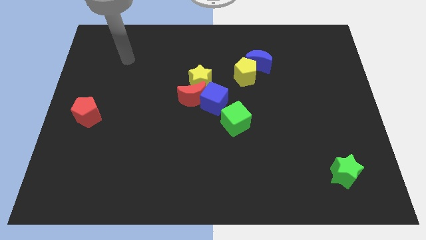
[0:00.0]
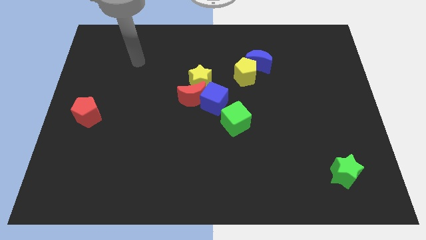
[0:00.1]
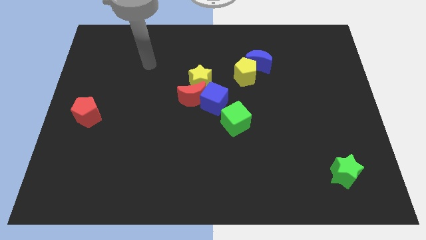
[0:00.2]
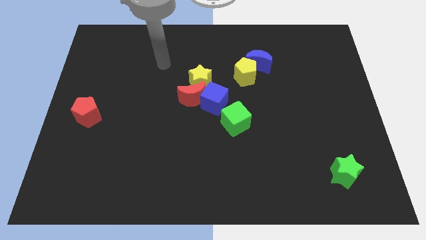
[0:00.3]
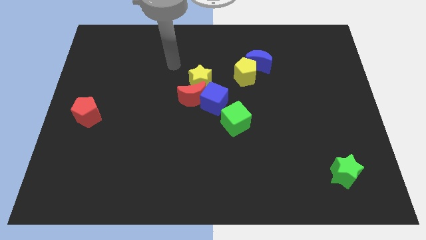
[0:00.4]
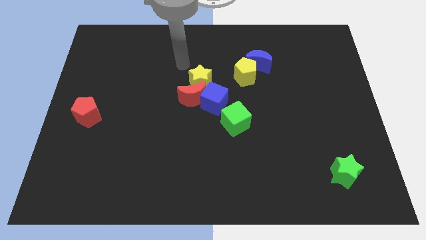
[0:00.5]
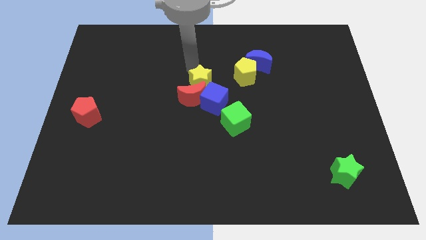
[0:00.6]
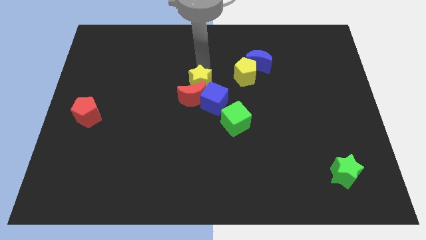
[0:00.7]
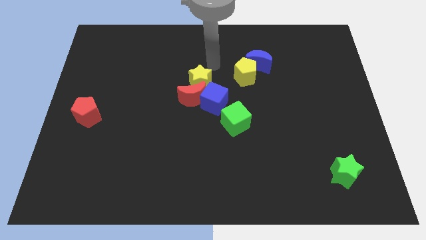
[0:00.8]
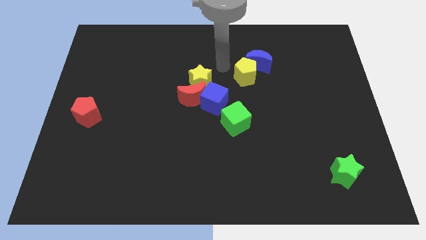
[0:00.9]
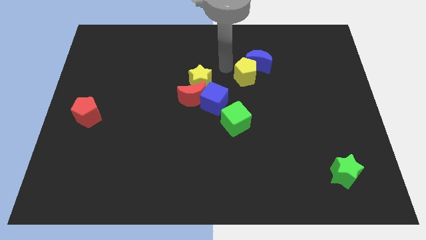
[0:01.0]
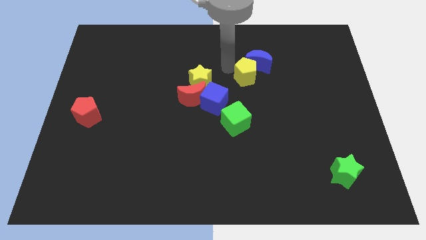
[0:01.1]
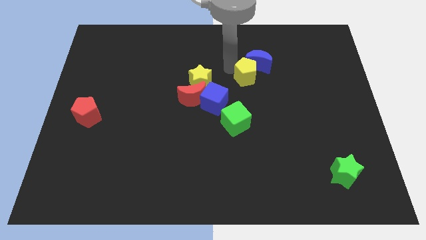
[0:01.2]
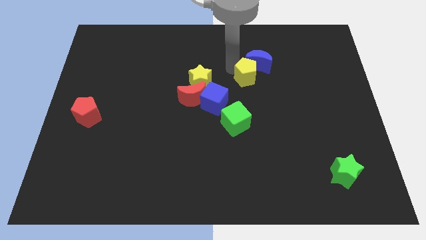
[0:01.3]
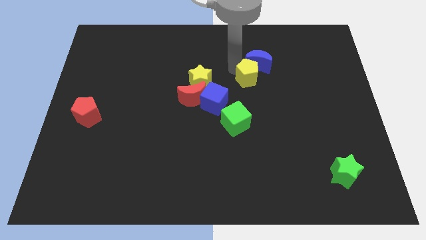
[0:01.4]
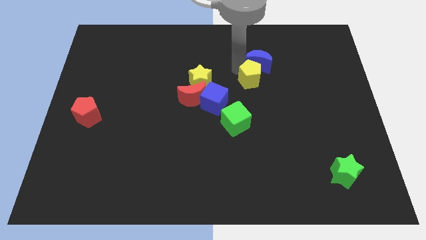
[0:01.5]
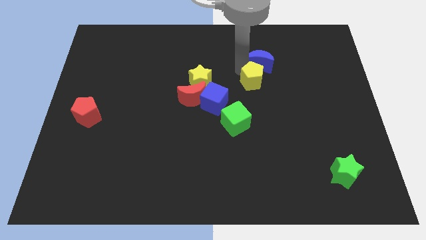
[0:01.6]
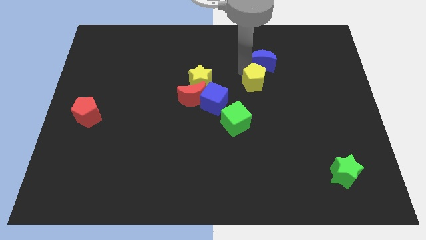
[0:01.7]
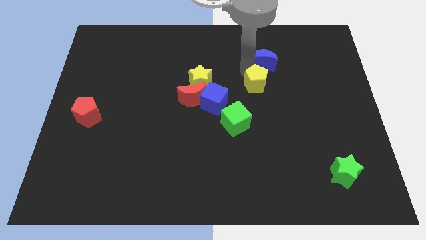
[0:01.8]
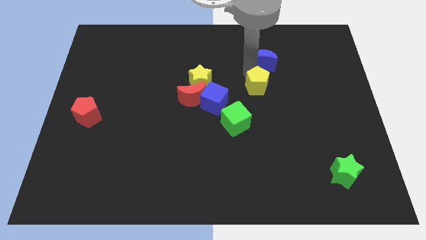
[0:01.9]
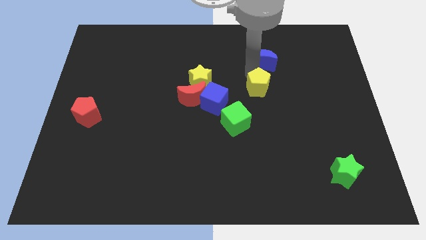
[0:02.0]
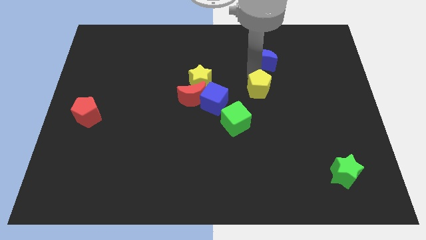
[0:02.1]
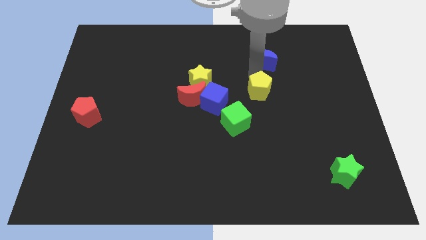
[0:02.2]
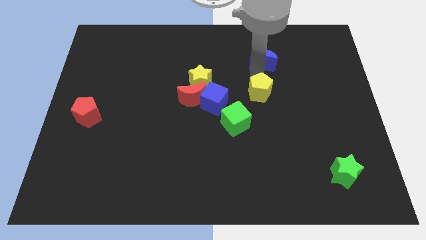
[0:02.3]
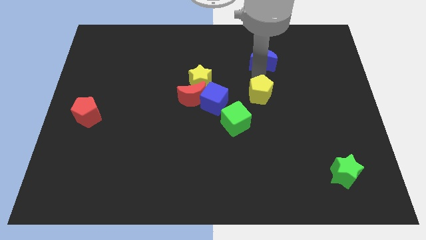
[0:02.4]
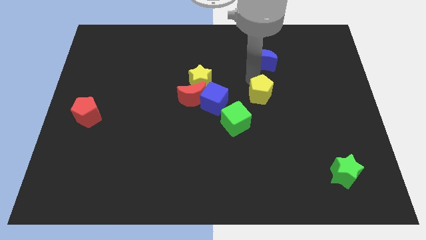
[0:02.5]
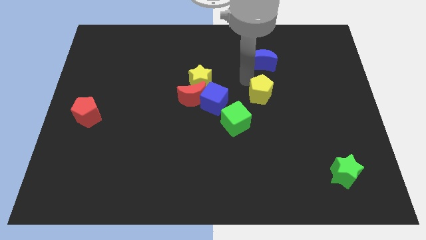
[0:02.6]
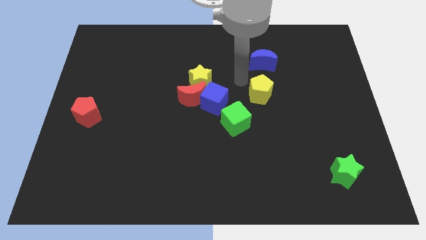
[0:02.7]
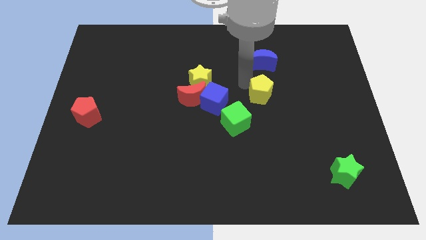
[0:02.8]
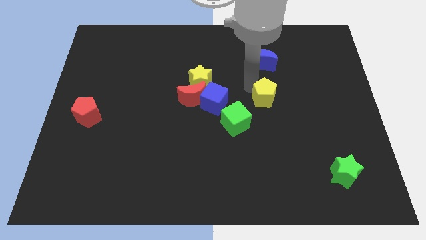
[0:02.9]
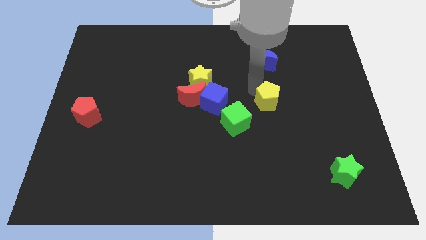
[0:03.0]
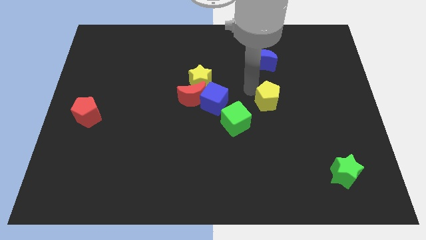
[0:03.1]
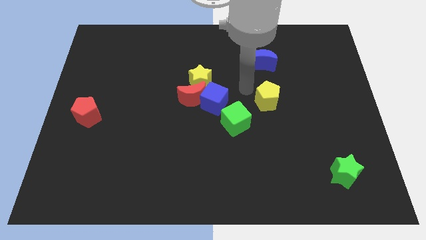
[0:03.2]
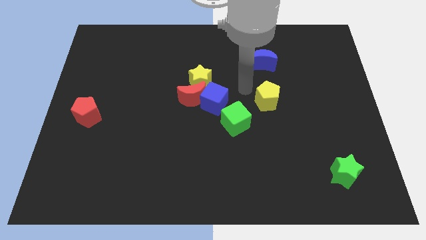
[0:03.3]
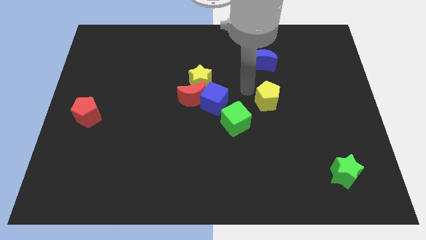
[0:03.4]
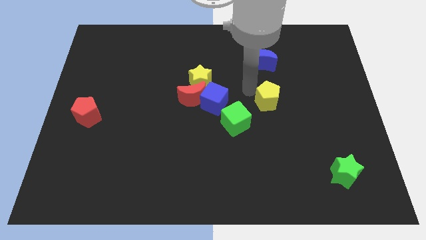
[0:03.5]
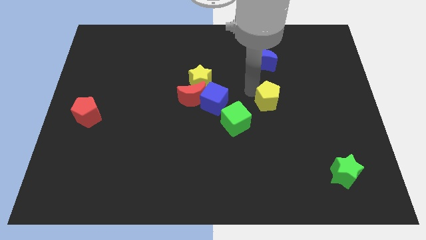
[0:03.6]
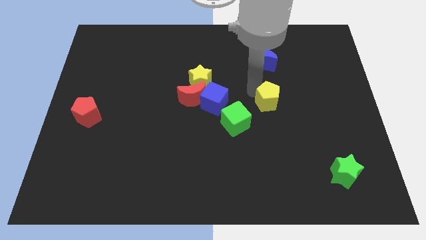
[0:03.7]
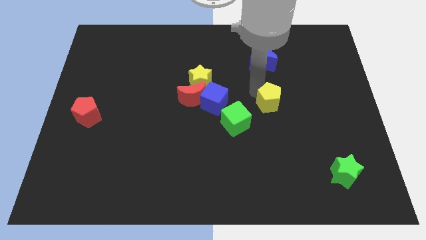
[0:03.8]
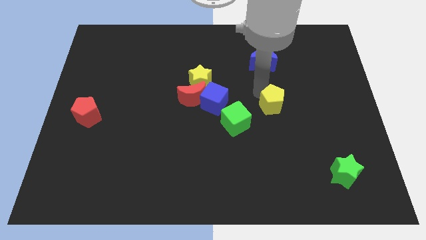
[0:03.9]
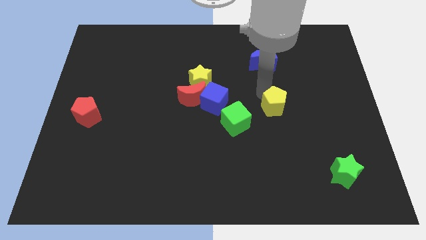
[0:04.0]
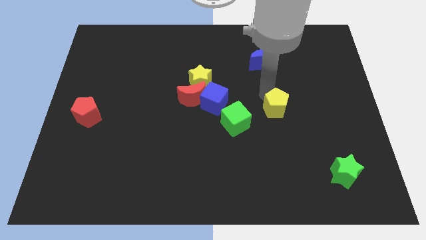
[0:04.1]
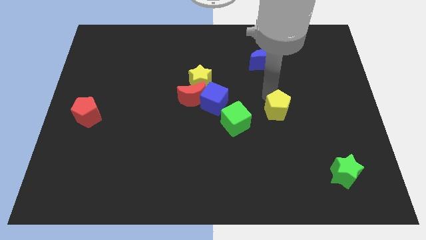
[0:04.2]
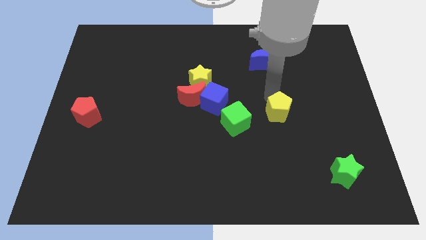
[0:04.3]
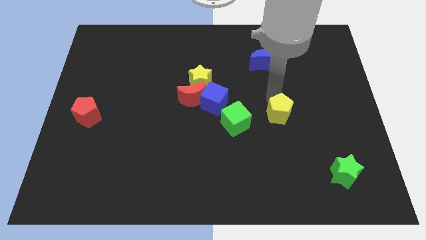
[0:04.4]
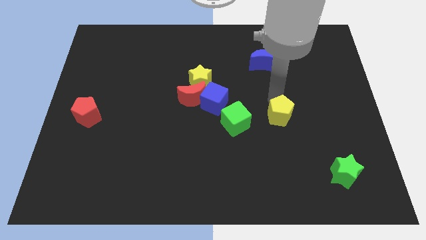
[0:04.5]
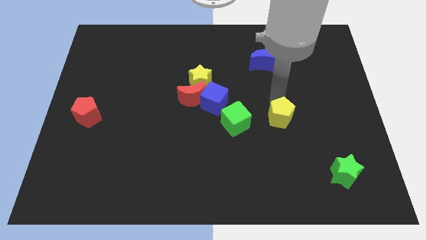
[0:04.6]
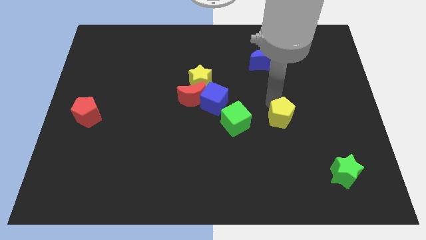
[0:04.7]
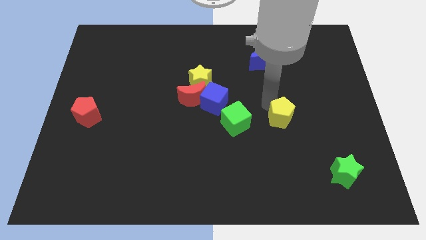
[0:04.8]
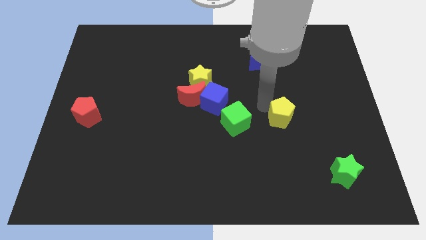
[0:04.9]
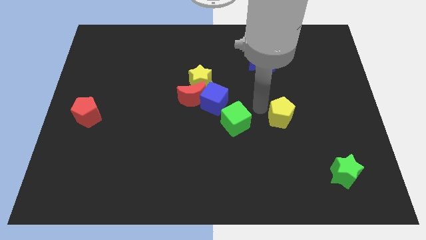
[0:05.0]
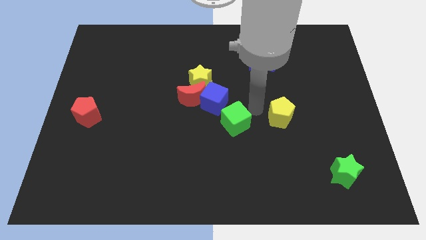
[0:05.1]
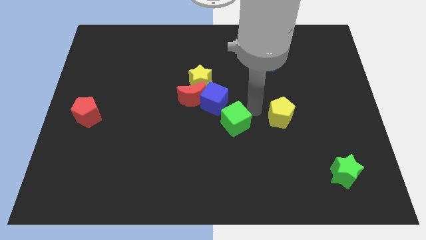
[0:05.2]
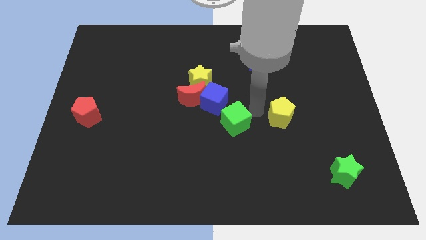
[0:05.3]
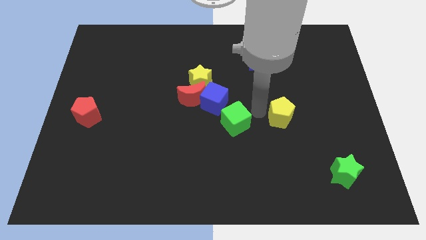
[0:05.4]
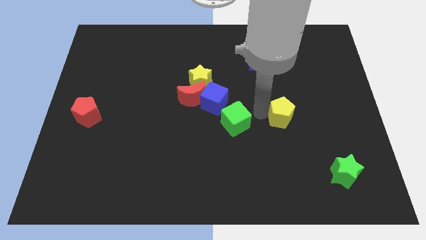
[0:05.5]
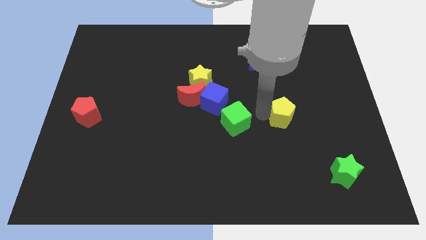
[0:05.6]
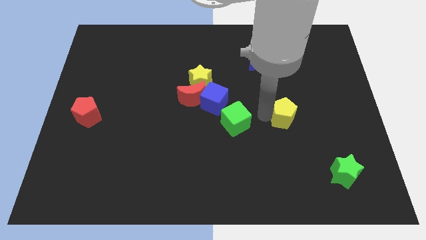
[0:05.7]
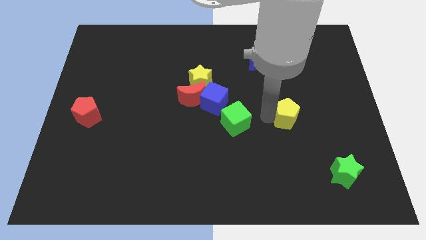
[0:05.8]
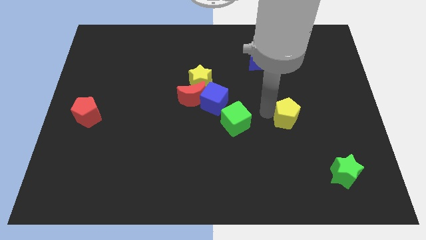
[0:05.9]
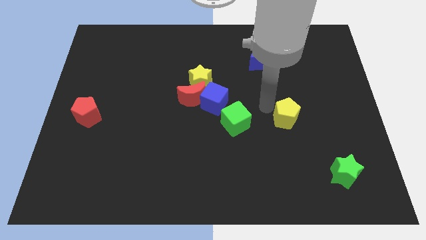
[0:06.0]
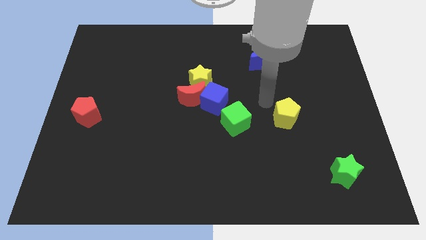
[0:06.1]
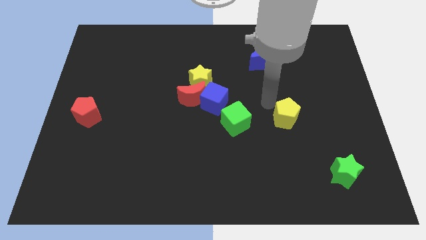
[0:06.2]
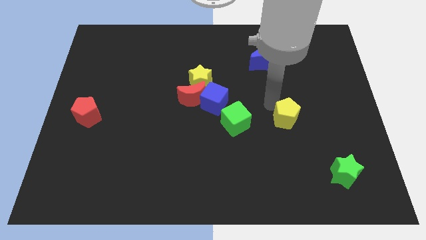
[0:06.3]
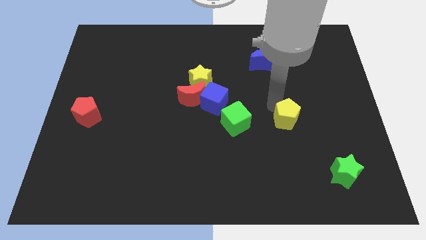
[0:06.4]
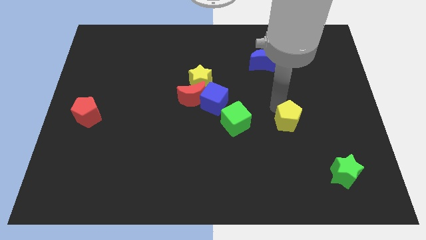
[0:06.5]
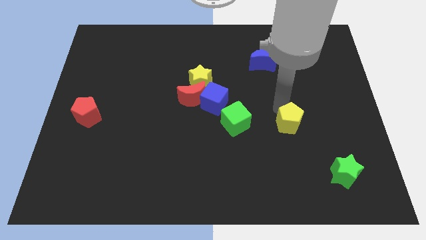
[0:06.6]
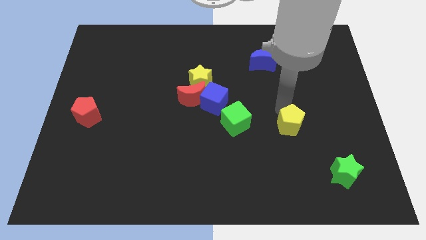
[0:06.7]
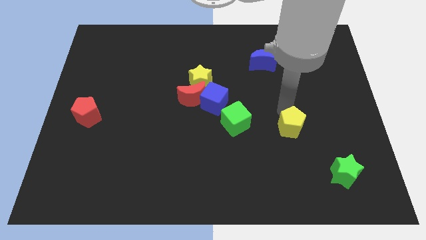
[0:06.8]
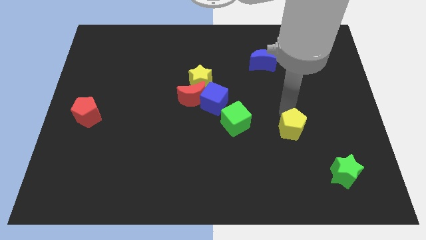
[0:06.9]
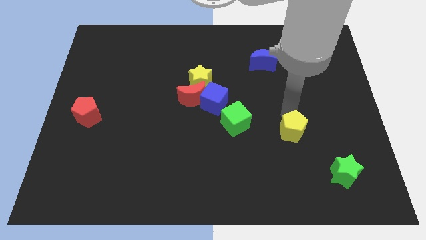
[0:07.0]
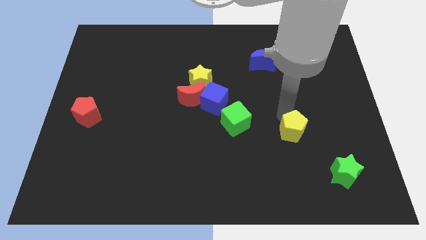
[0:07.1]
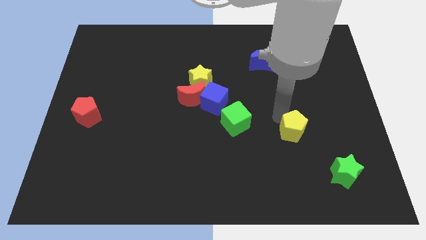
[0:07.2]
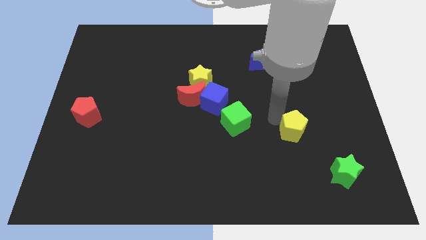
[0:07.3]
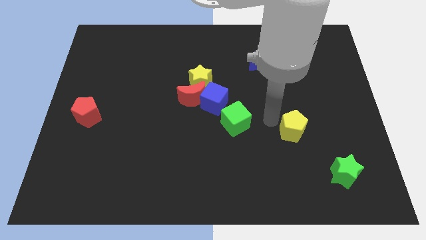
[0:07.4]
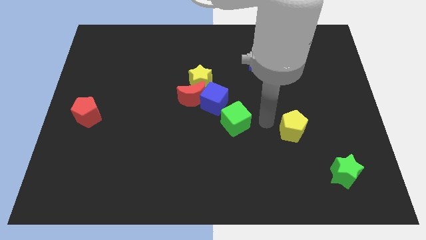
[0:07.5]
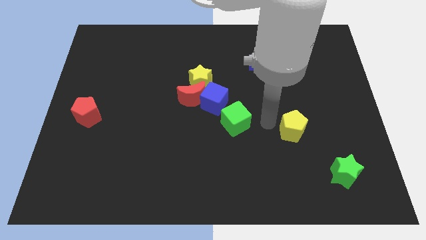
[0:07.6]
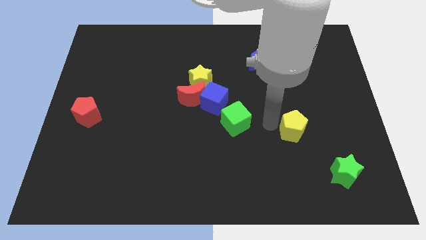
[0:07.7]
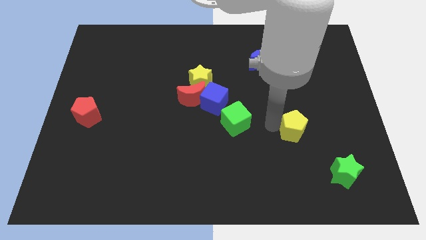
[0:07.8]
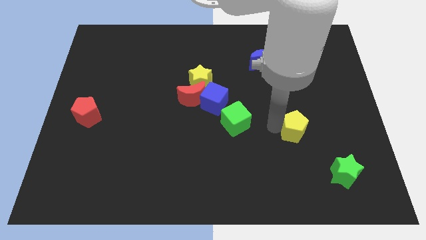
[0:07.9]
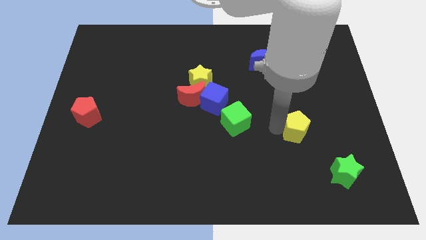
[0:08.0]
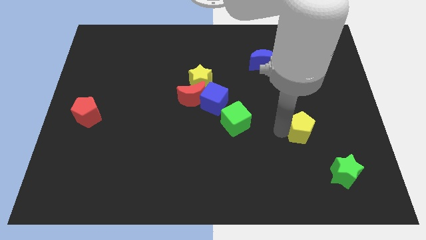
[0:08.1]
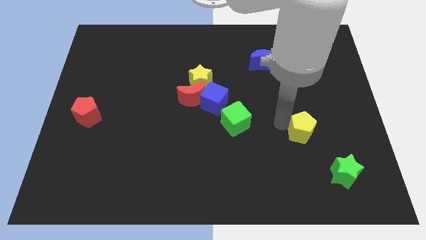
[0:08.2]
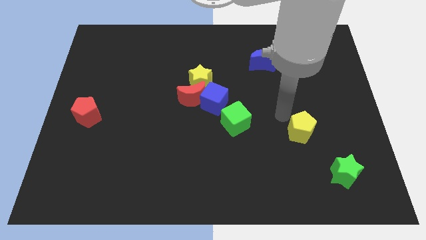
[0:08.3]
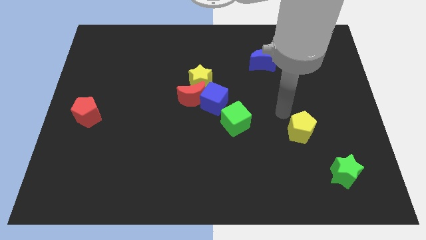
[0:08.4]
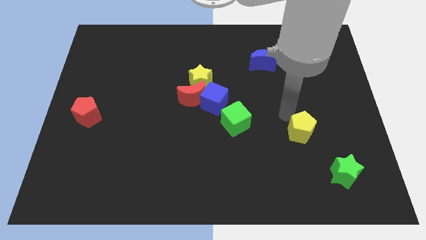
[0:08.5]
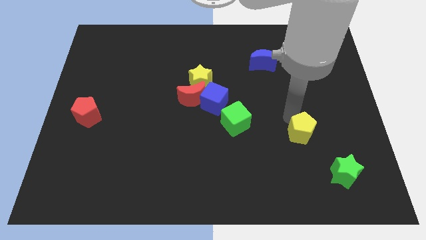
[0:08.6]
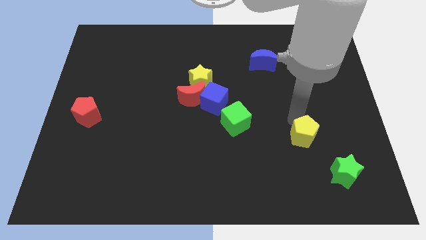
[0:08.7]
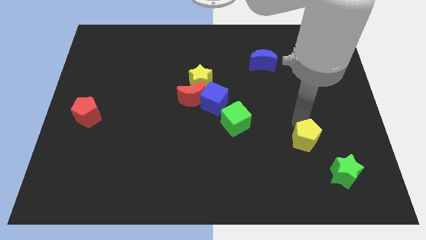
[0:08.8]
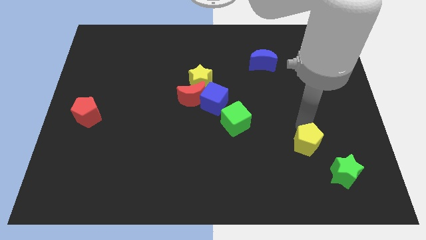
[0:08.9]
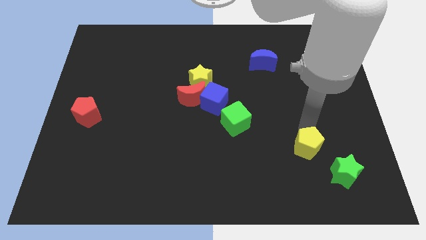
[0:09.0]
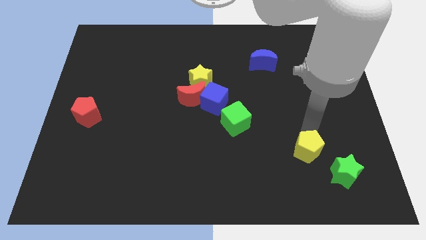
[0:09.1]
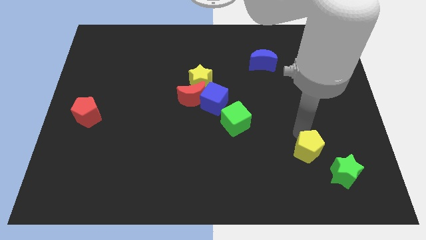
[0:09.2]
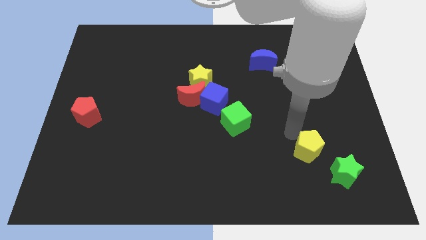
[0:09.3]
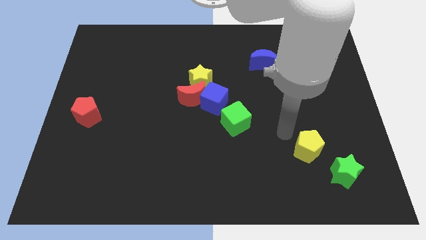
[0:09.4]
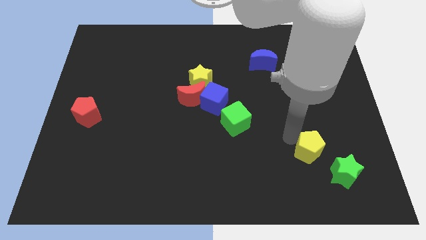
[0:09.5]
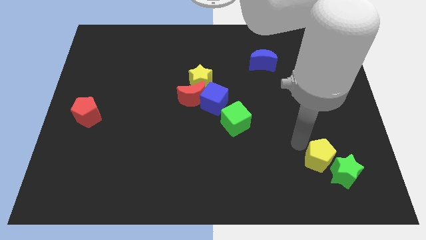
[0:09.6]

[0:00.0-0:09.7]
put the yellow pentagon next to the green star
